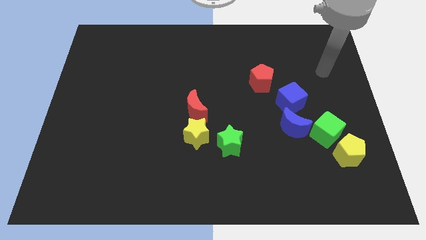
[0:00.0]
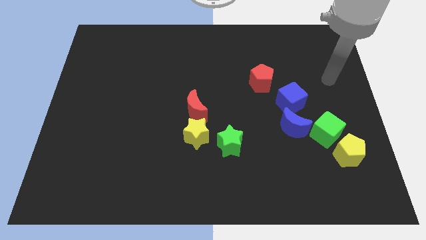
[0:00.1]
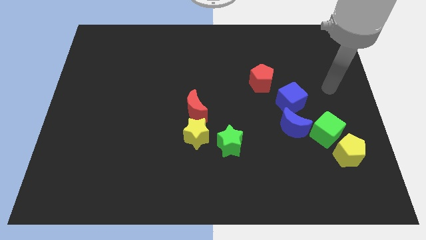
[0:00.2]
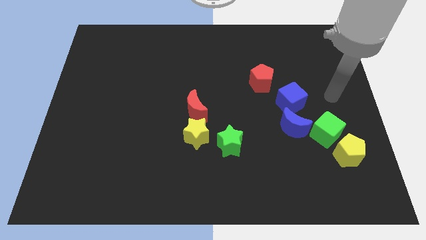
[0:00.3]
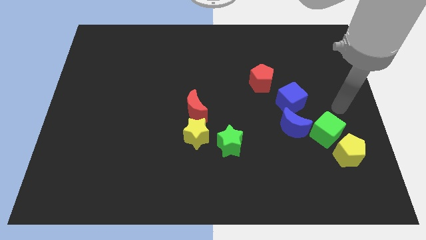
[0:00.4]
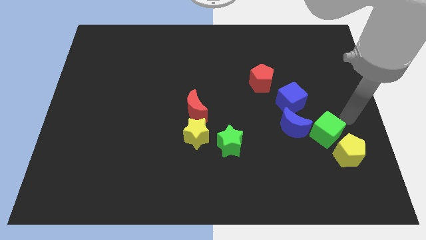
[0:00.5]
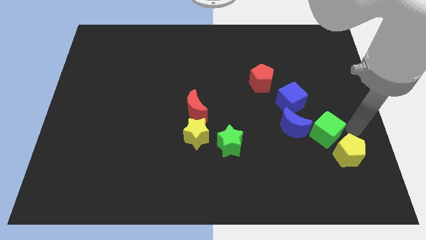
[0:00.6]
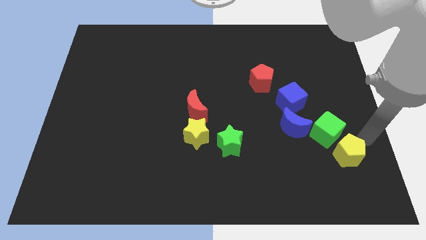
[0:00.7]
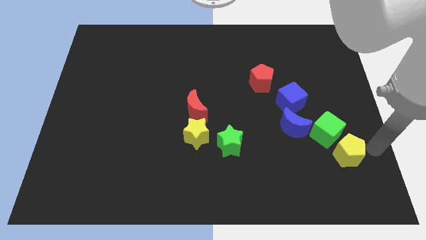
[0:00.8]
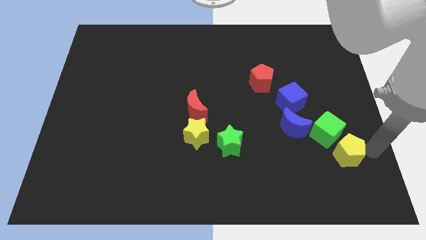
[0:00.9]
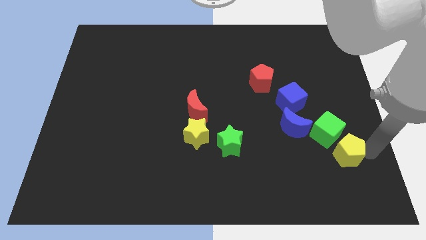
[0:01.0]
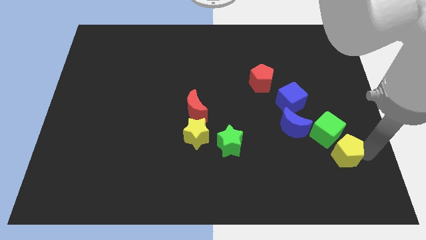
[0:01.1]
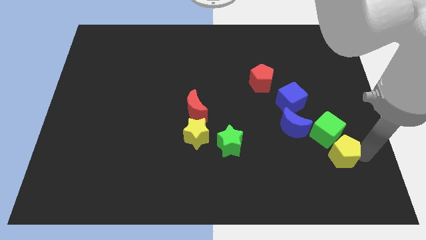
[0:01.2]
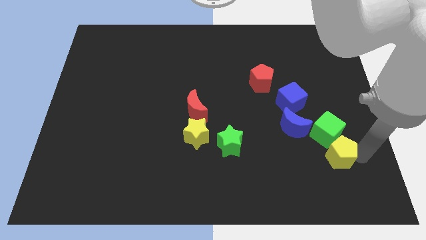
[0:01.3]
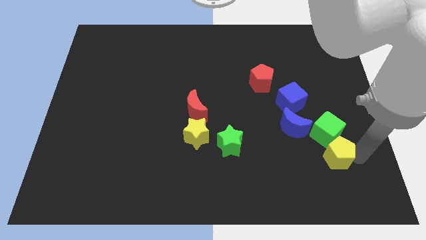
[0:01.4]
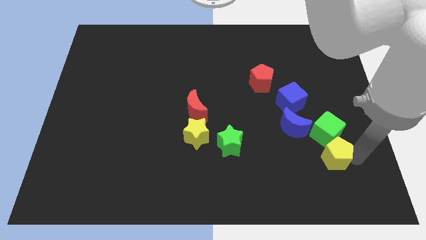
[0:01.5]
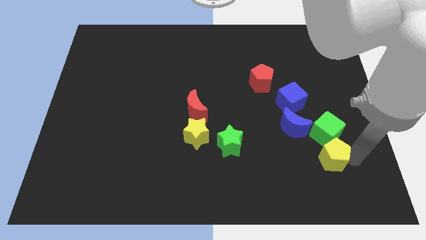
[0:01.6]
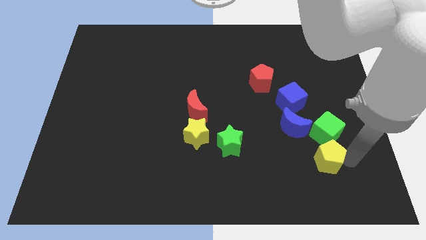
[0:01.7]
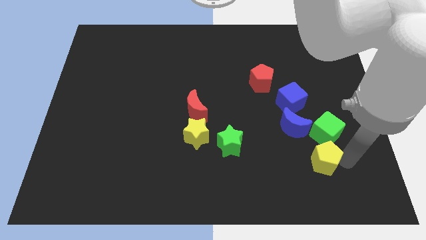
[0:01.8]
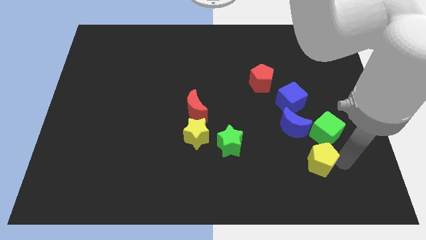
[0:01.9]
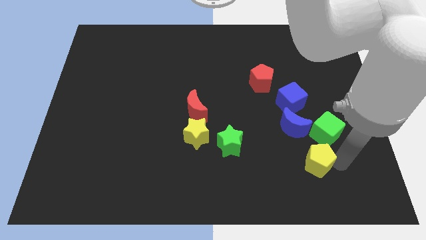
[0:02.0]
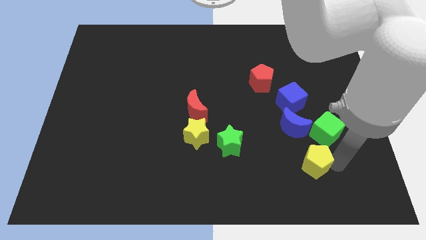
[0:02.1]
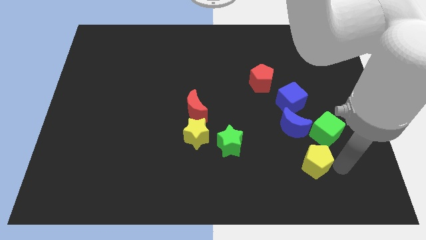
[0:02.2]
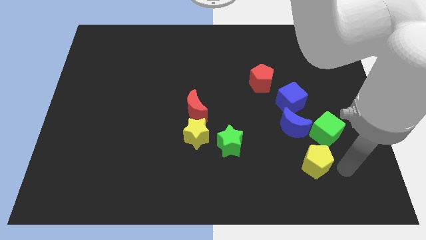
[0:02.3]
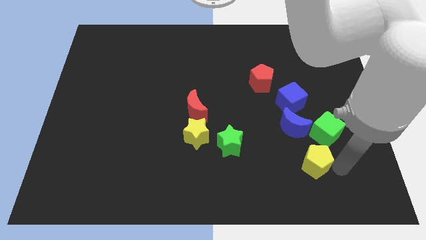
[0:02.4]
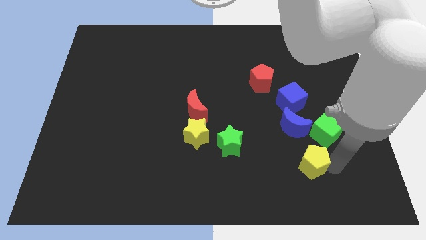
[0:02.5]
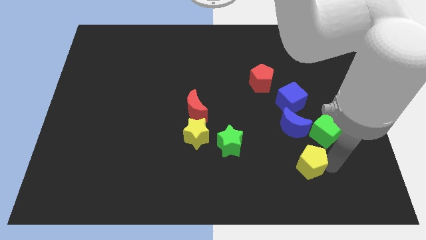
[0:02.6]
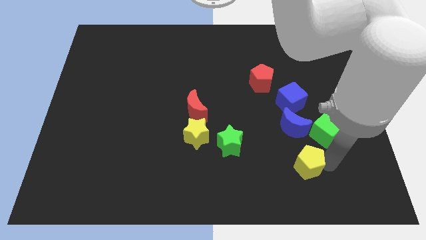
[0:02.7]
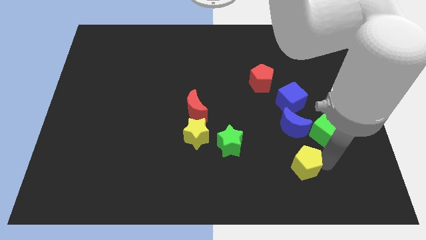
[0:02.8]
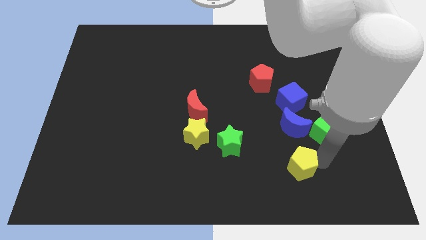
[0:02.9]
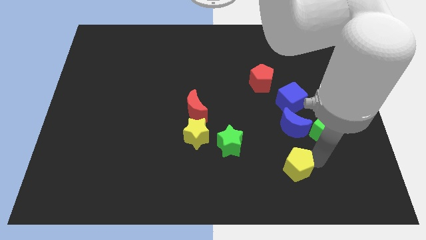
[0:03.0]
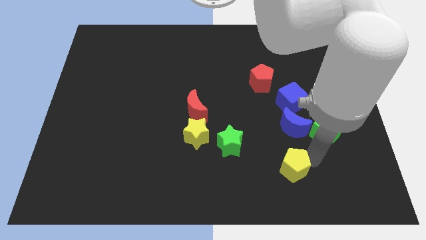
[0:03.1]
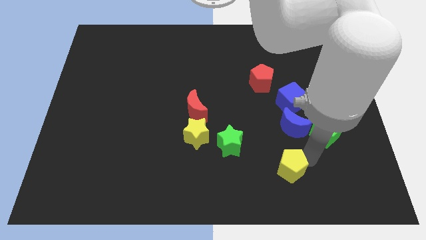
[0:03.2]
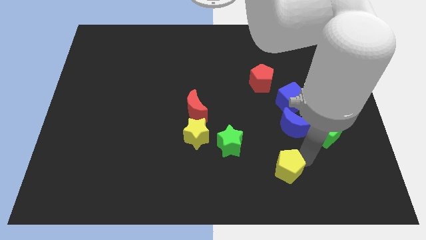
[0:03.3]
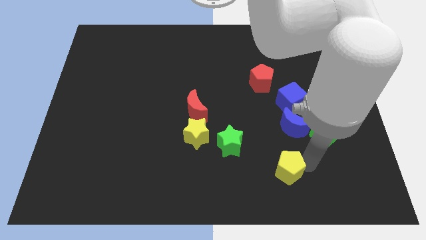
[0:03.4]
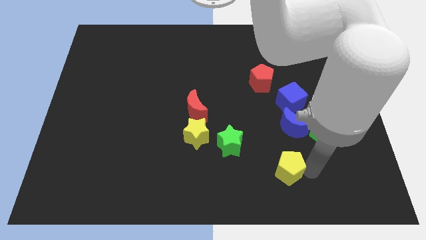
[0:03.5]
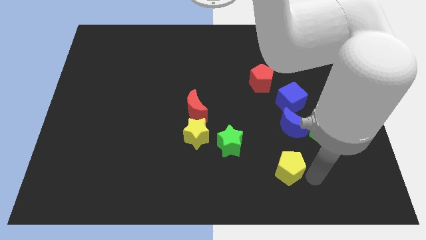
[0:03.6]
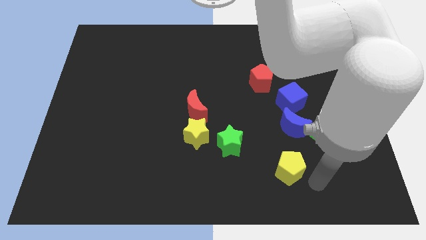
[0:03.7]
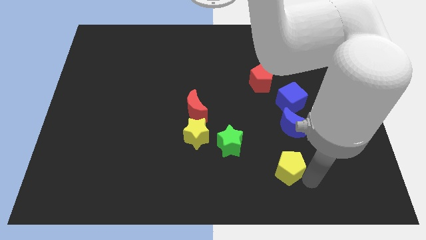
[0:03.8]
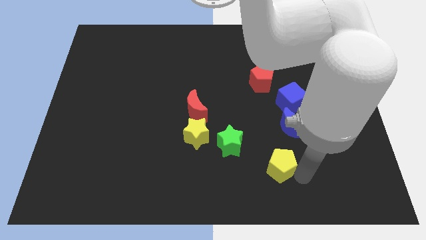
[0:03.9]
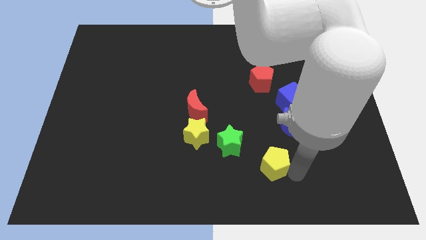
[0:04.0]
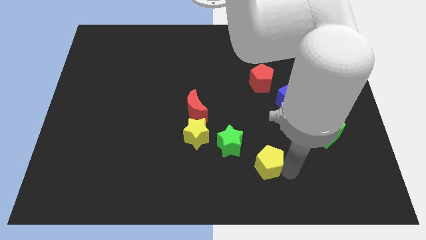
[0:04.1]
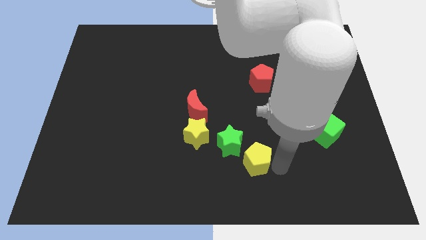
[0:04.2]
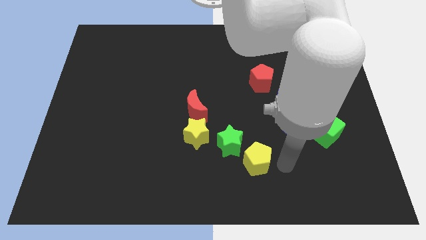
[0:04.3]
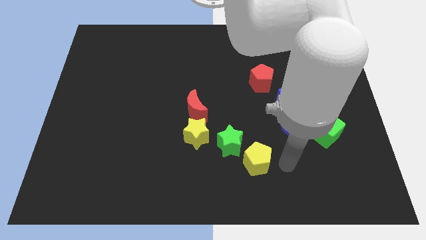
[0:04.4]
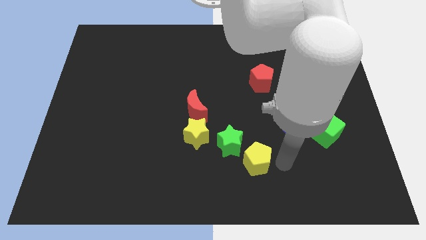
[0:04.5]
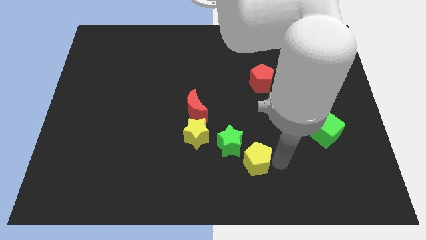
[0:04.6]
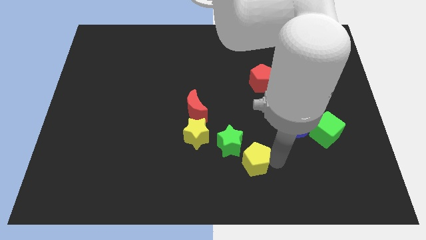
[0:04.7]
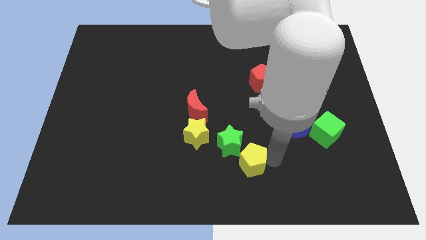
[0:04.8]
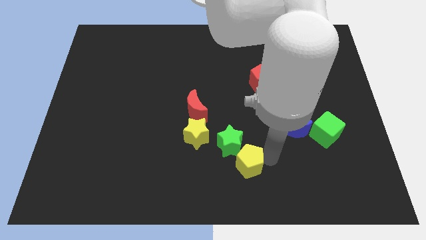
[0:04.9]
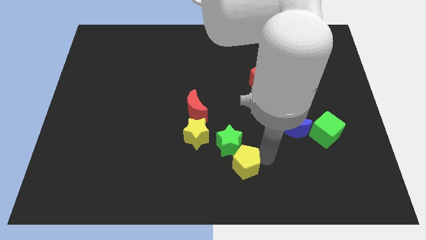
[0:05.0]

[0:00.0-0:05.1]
push the yellow pentagon to the bottom right of the yellow star

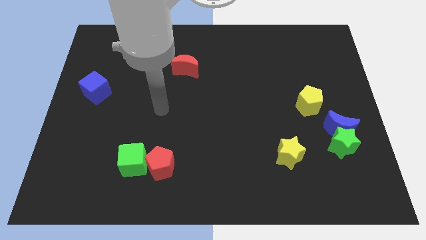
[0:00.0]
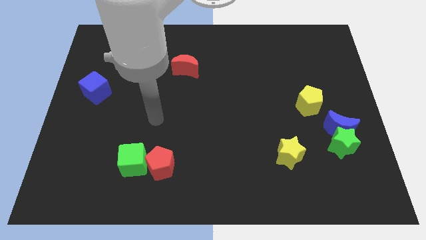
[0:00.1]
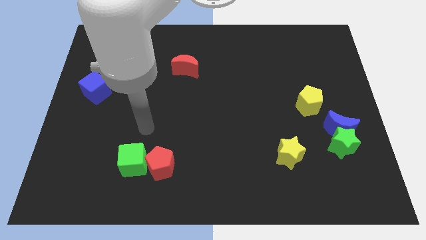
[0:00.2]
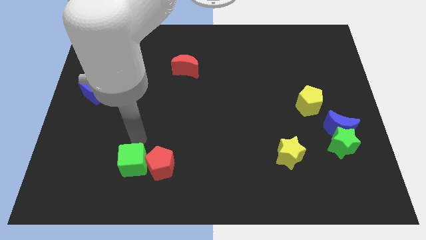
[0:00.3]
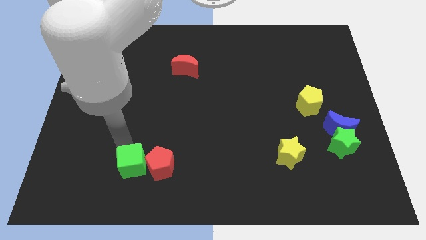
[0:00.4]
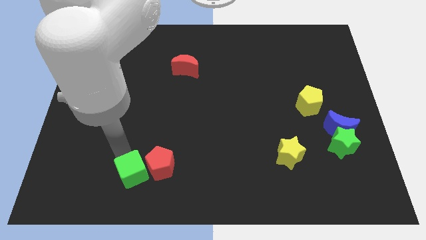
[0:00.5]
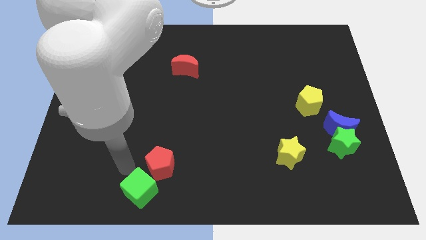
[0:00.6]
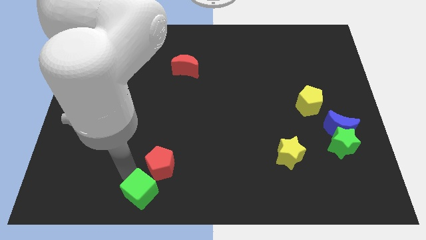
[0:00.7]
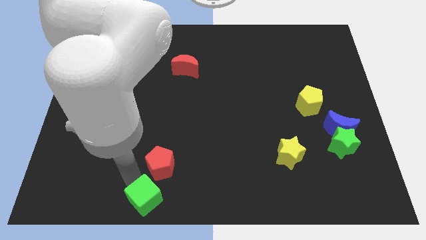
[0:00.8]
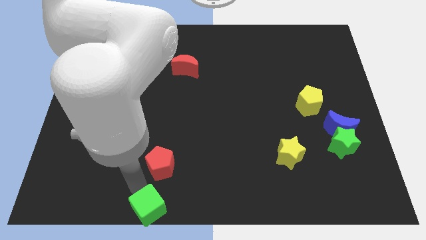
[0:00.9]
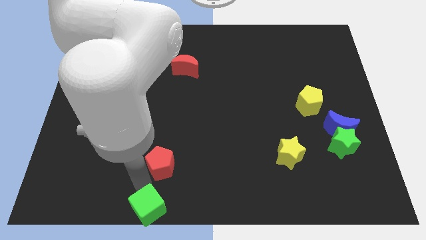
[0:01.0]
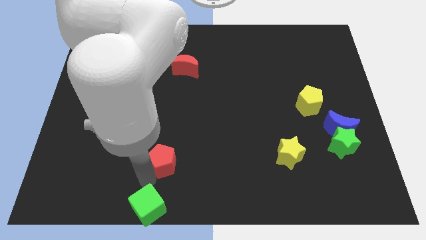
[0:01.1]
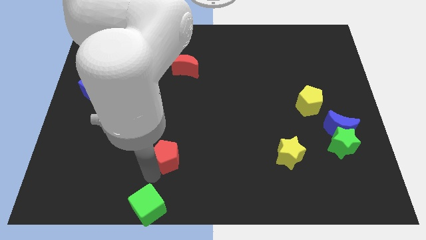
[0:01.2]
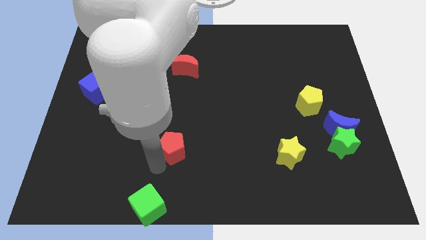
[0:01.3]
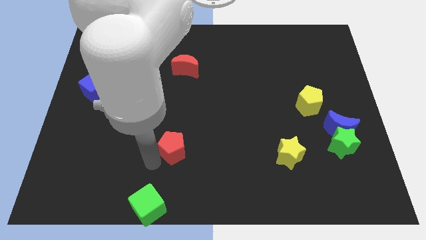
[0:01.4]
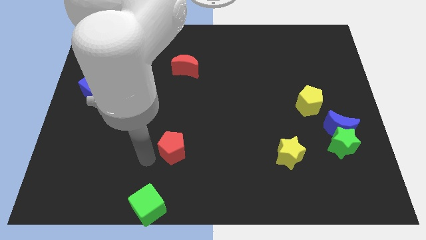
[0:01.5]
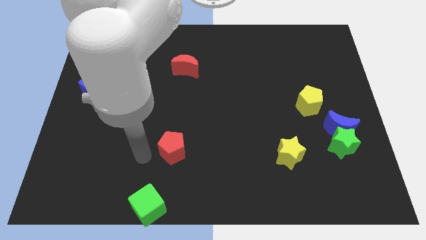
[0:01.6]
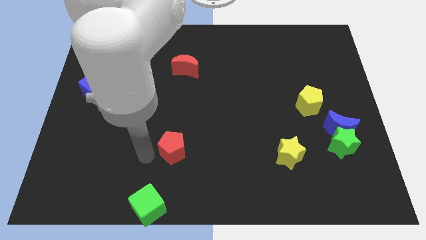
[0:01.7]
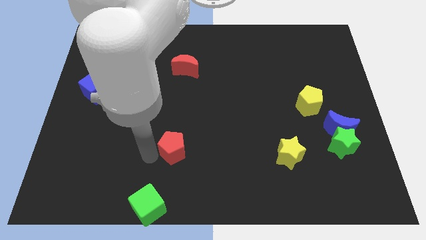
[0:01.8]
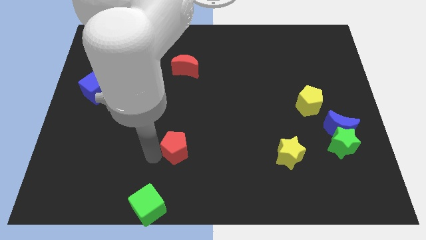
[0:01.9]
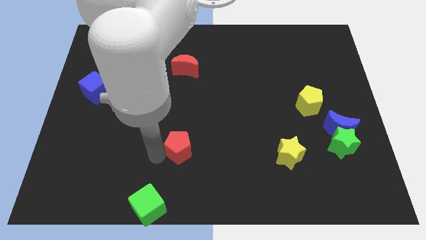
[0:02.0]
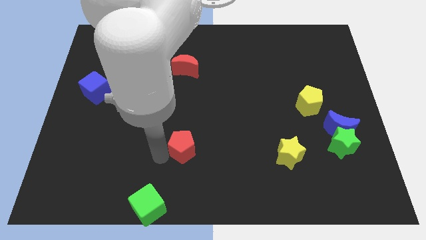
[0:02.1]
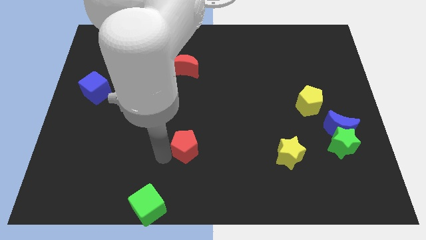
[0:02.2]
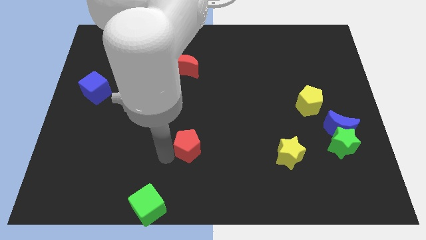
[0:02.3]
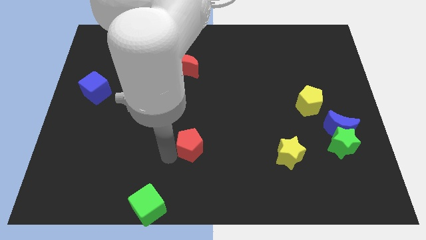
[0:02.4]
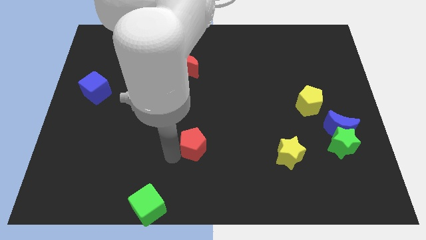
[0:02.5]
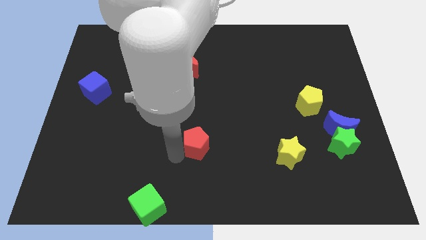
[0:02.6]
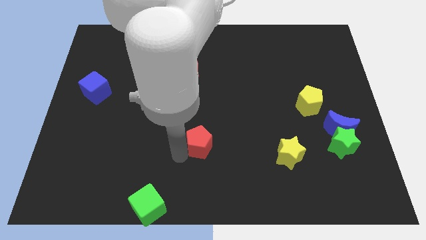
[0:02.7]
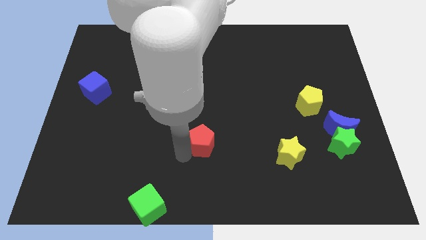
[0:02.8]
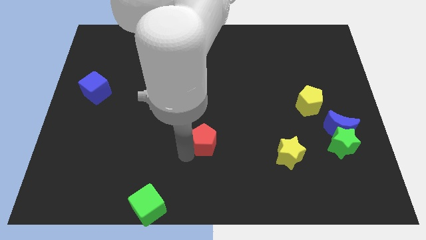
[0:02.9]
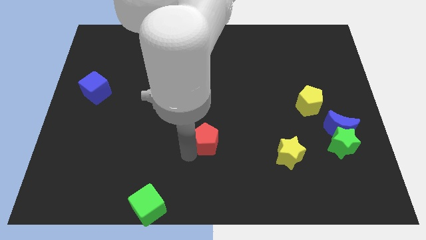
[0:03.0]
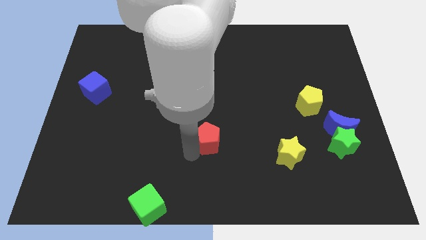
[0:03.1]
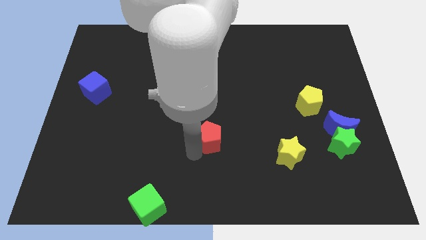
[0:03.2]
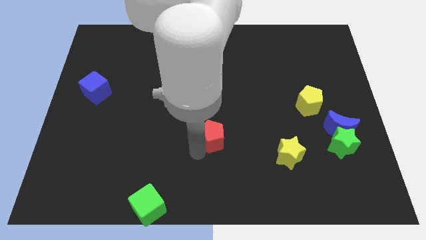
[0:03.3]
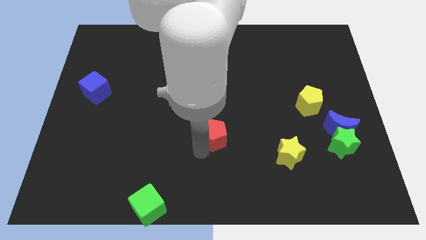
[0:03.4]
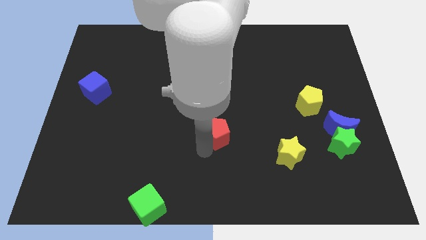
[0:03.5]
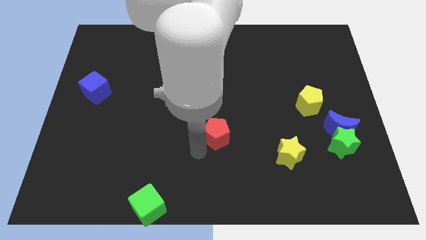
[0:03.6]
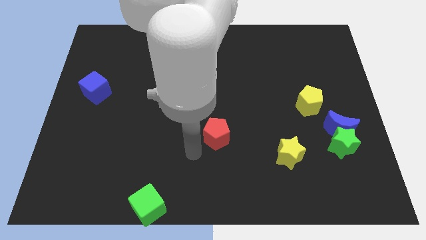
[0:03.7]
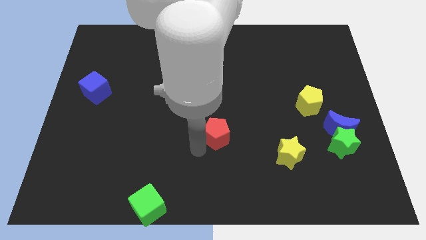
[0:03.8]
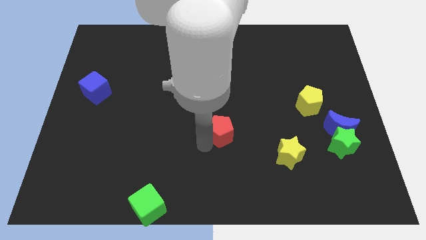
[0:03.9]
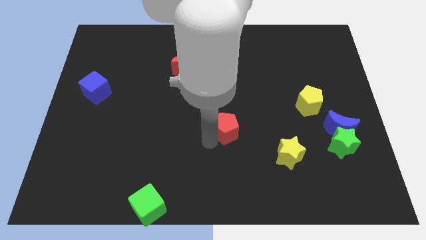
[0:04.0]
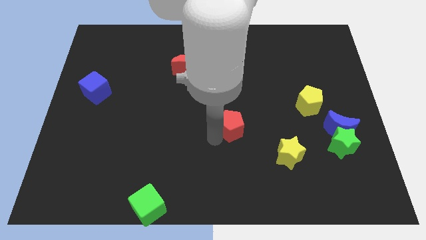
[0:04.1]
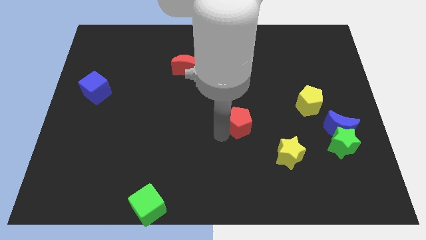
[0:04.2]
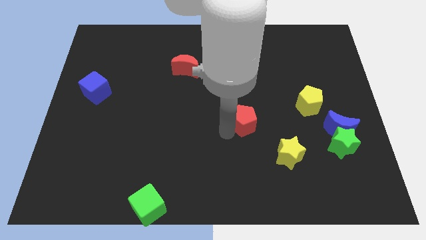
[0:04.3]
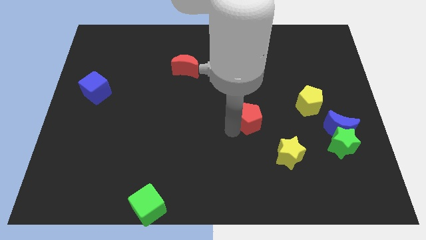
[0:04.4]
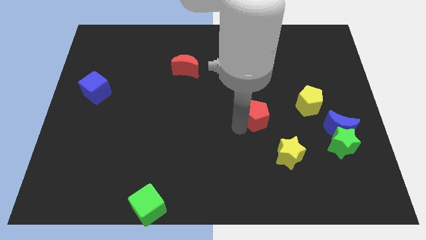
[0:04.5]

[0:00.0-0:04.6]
slide the red pentagon to the left side of the yellow pentagon
